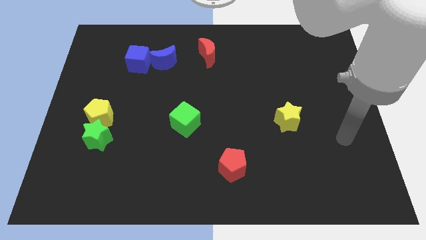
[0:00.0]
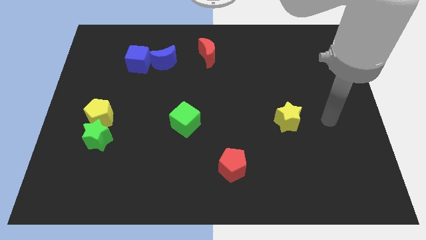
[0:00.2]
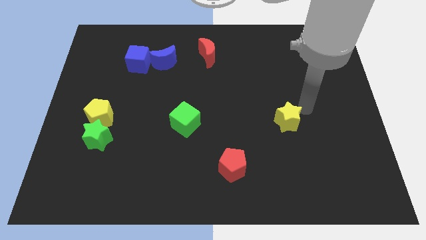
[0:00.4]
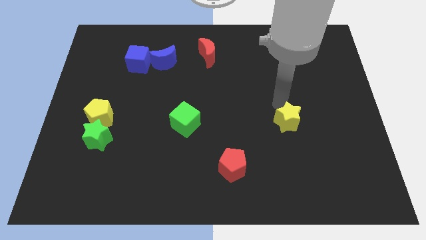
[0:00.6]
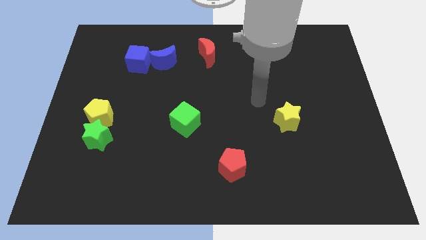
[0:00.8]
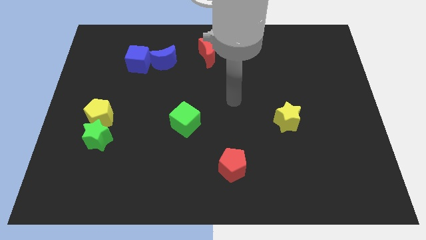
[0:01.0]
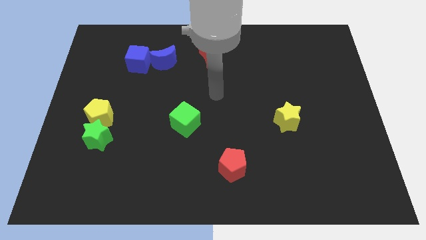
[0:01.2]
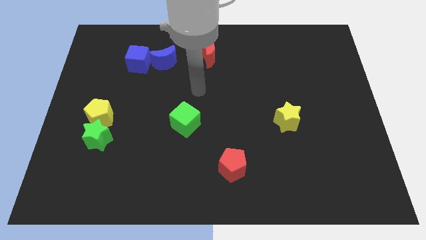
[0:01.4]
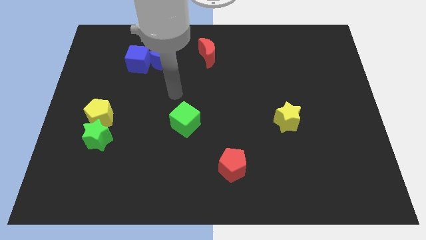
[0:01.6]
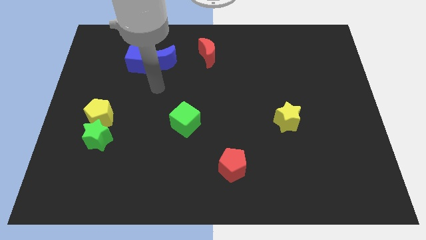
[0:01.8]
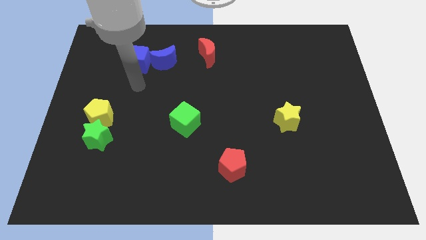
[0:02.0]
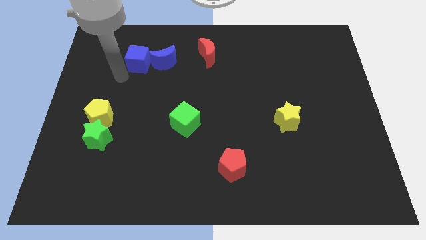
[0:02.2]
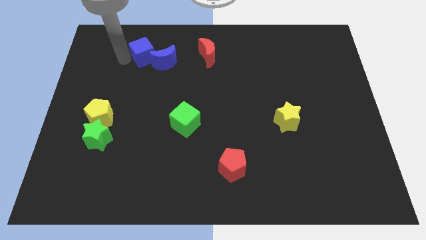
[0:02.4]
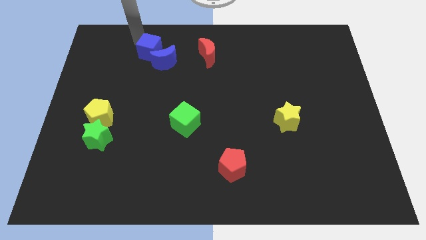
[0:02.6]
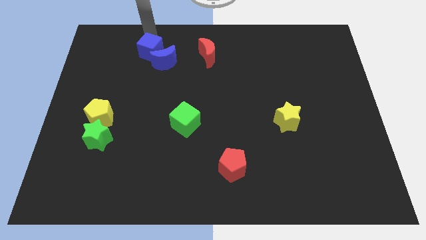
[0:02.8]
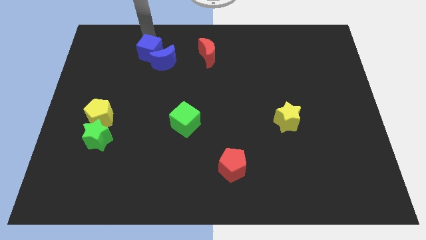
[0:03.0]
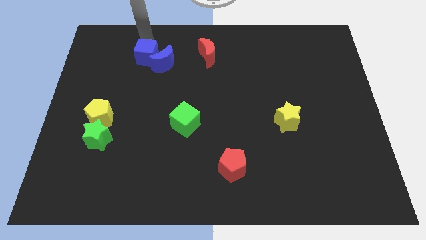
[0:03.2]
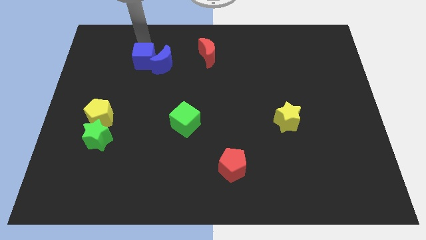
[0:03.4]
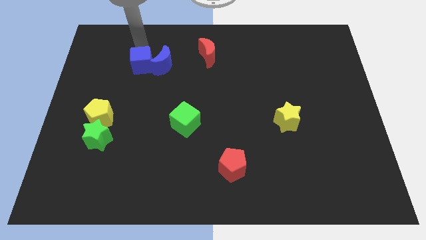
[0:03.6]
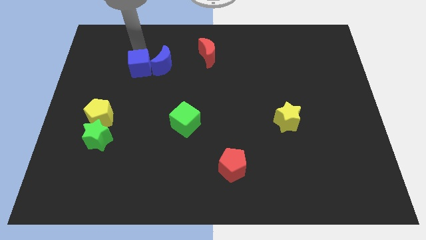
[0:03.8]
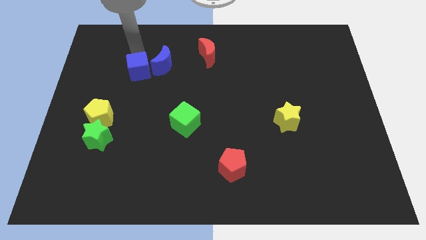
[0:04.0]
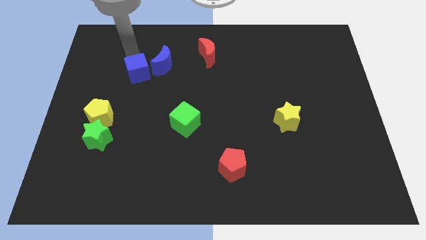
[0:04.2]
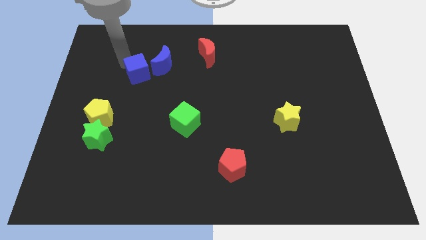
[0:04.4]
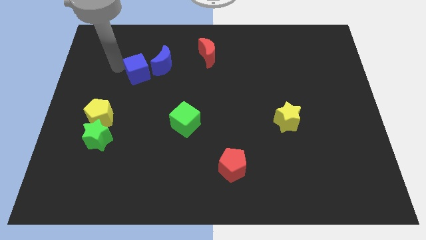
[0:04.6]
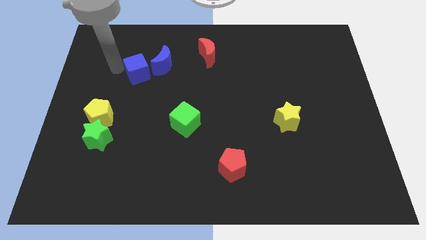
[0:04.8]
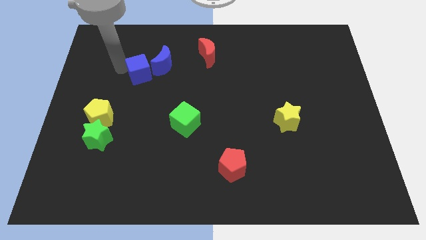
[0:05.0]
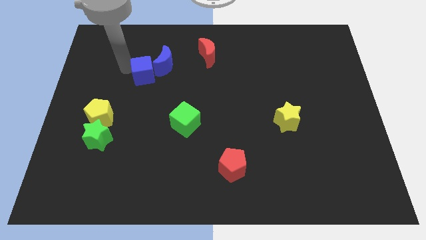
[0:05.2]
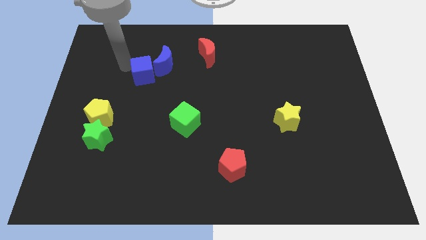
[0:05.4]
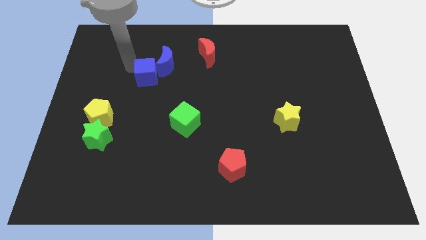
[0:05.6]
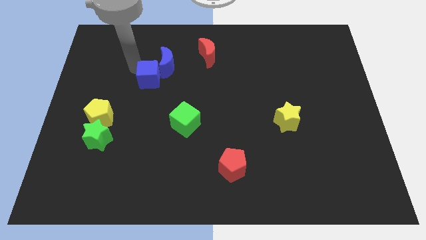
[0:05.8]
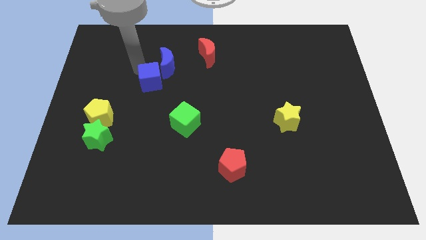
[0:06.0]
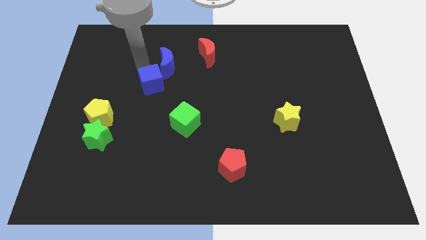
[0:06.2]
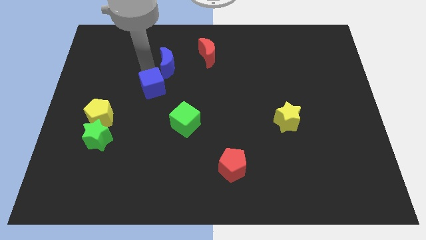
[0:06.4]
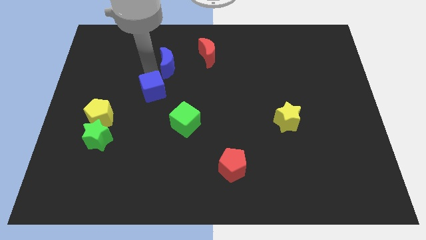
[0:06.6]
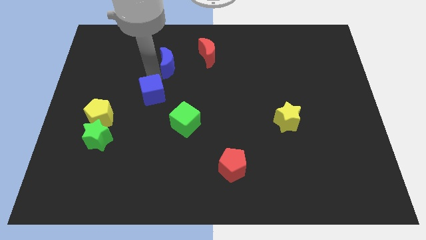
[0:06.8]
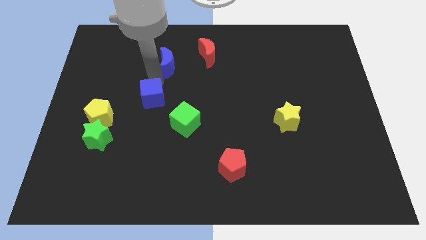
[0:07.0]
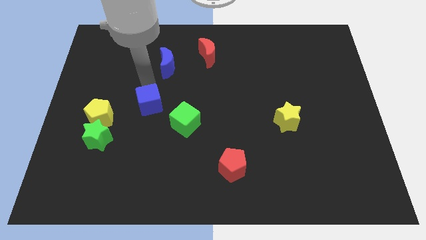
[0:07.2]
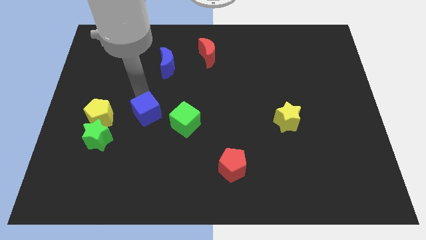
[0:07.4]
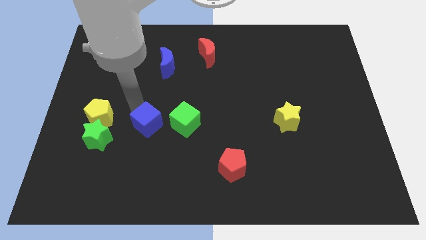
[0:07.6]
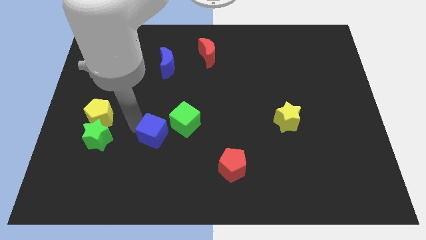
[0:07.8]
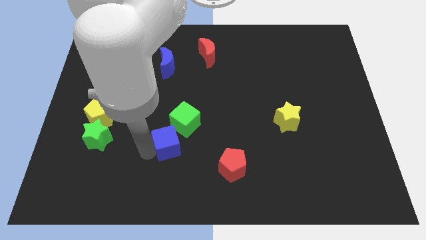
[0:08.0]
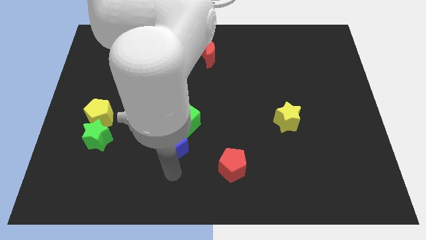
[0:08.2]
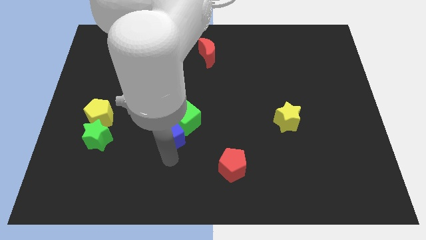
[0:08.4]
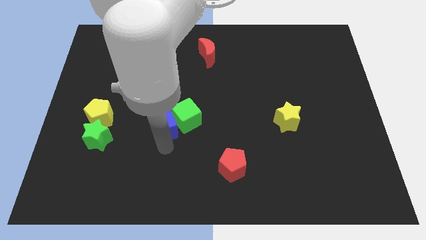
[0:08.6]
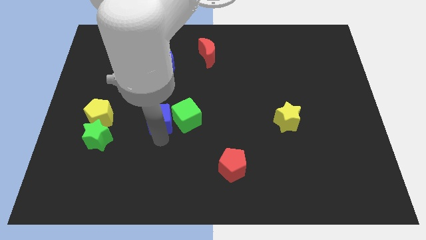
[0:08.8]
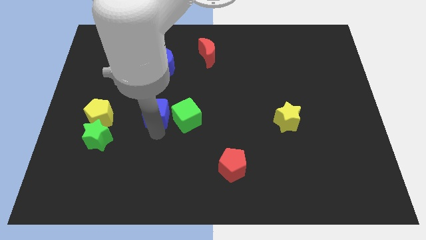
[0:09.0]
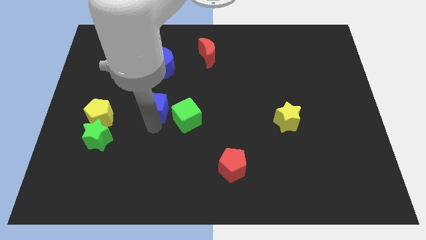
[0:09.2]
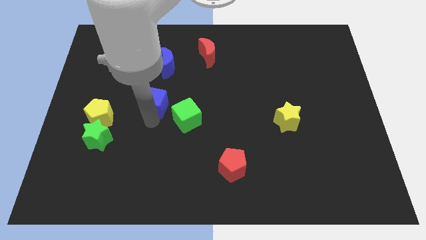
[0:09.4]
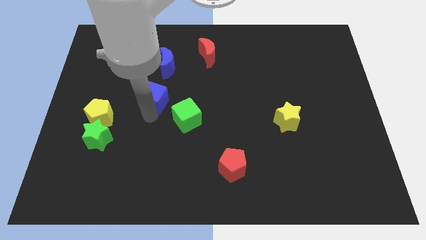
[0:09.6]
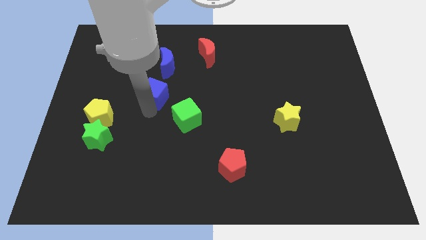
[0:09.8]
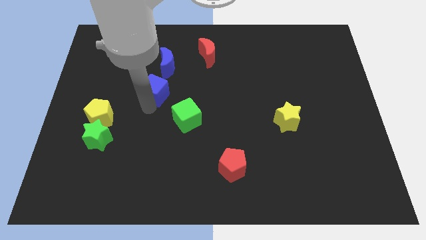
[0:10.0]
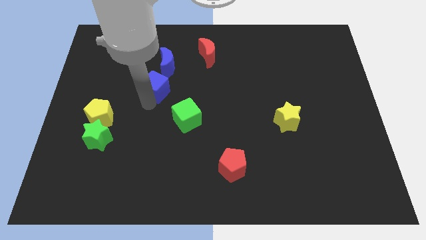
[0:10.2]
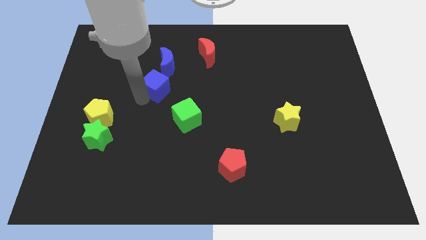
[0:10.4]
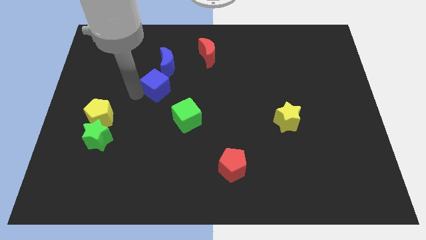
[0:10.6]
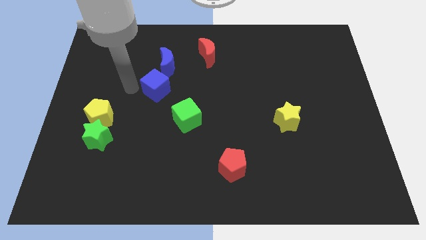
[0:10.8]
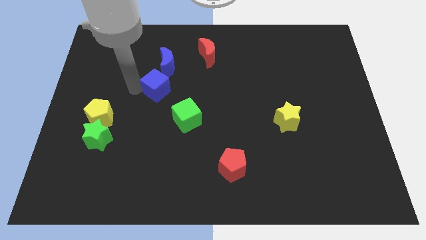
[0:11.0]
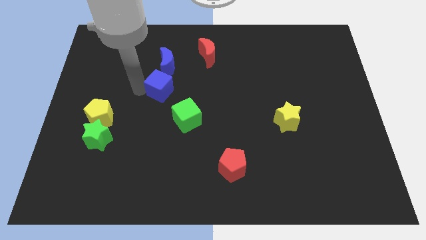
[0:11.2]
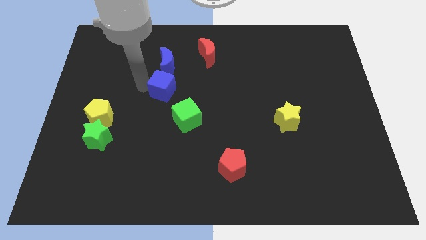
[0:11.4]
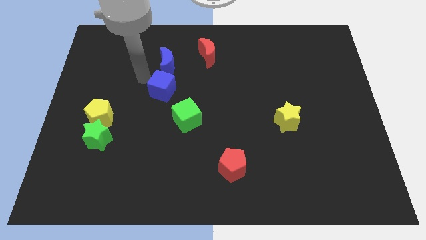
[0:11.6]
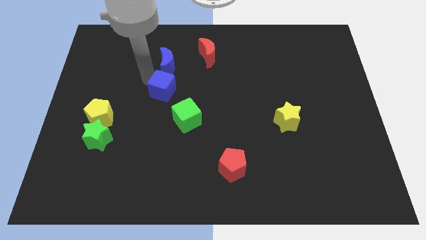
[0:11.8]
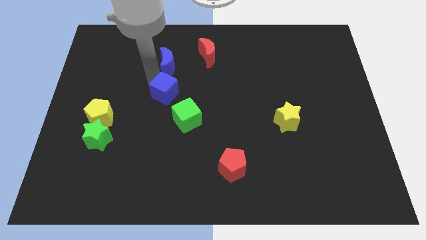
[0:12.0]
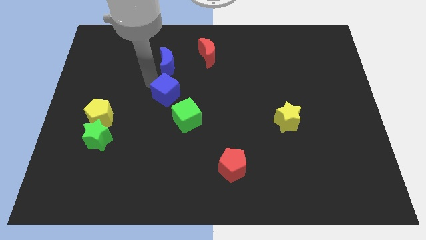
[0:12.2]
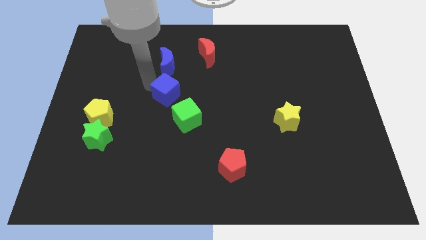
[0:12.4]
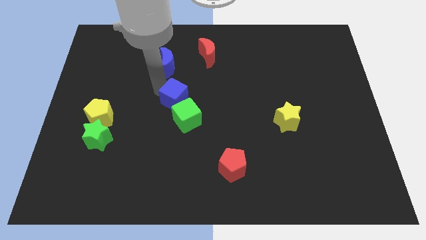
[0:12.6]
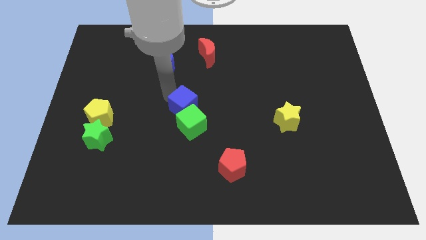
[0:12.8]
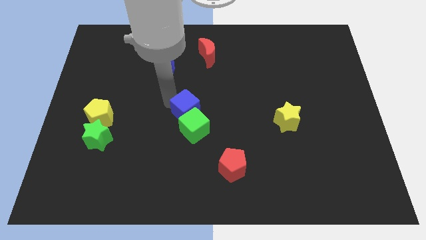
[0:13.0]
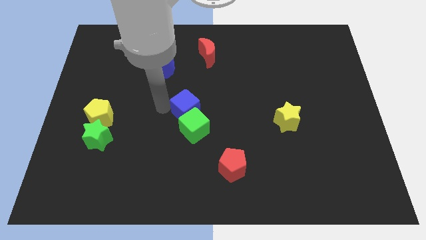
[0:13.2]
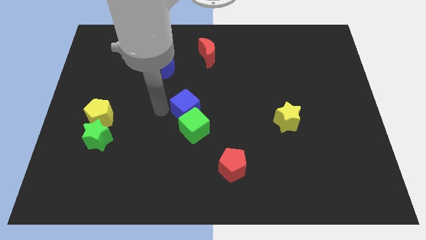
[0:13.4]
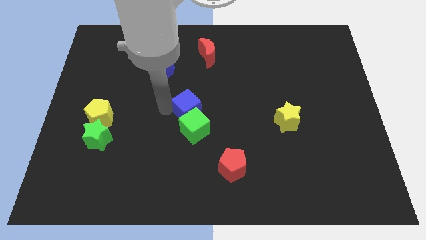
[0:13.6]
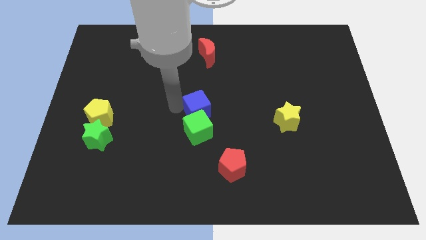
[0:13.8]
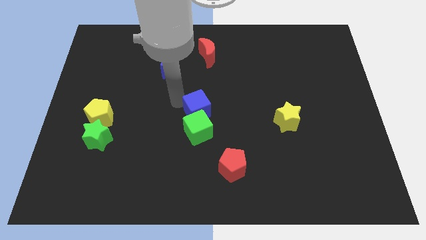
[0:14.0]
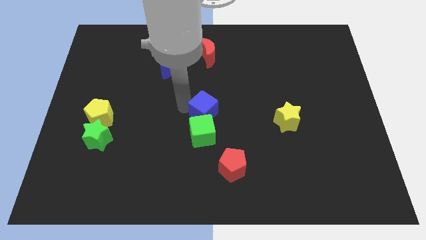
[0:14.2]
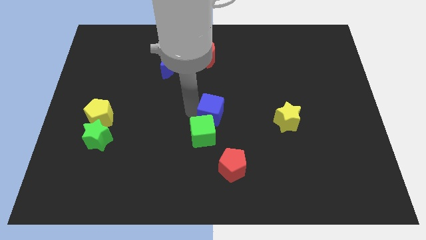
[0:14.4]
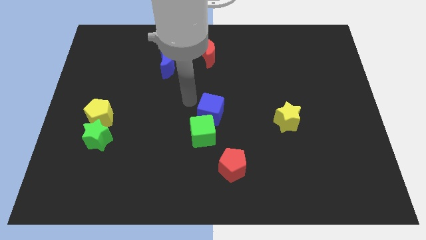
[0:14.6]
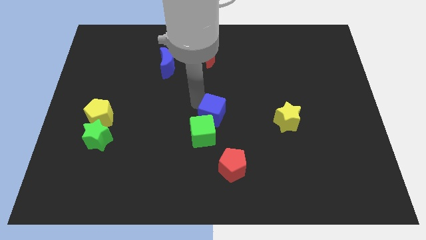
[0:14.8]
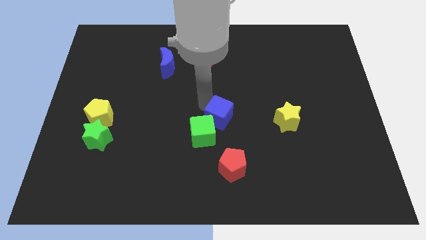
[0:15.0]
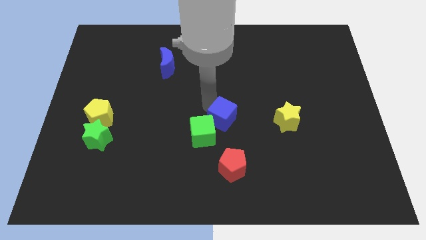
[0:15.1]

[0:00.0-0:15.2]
slide the blue cube right of the green cube
